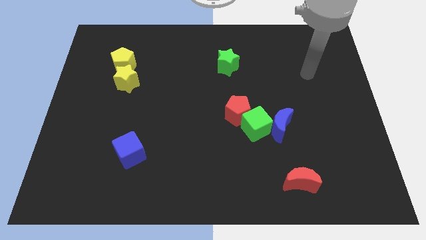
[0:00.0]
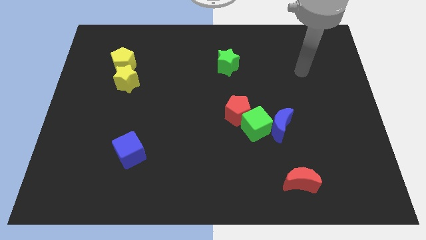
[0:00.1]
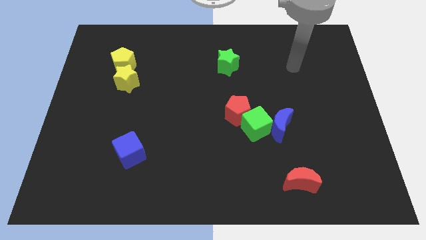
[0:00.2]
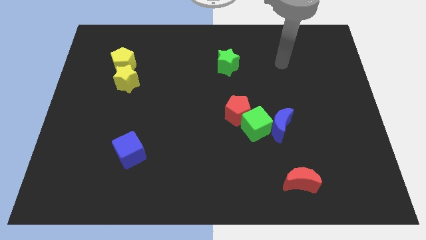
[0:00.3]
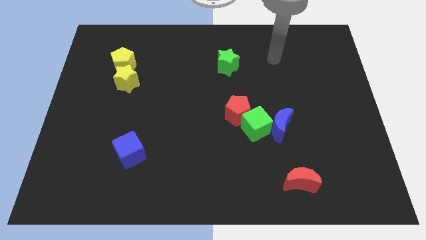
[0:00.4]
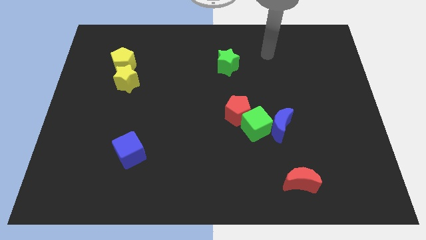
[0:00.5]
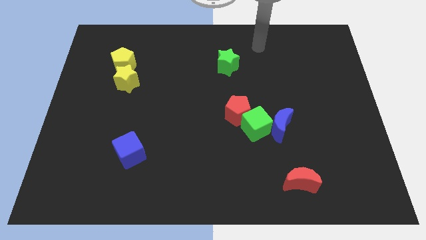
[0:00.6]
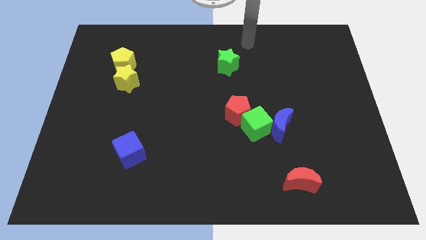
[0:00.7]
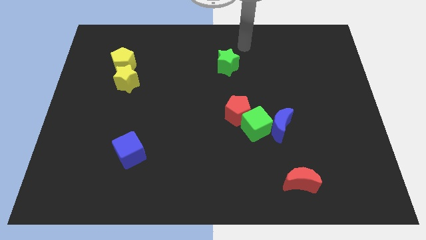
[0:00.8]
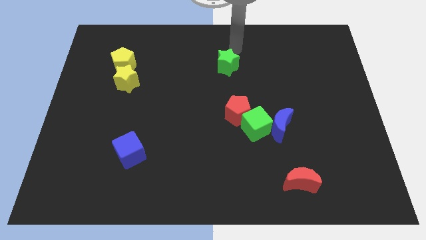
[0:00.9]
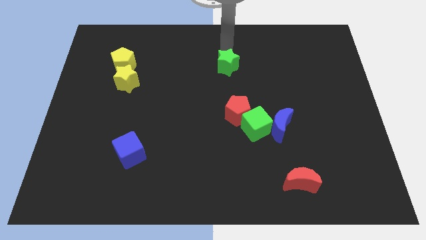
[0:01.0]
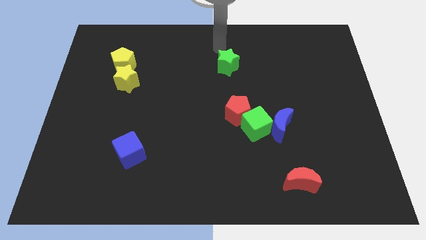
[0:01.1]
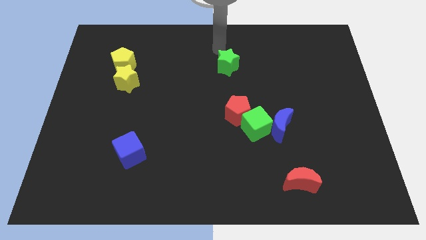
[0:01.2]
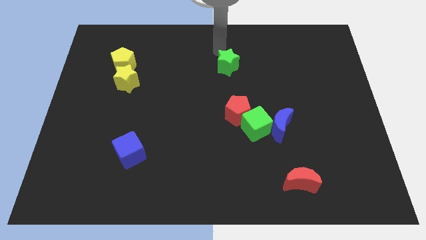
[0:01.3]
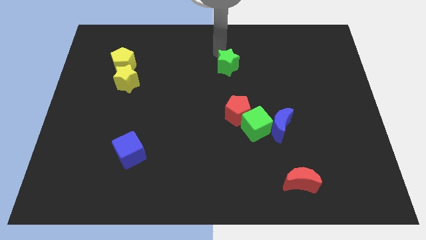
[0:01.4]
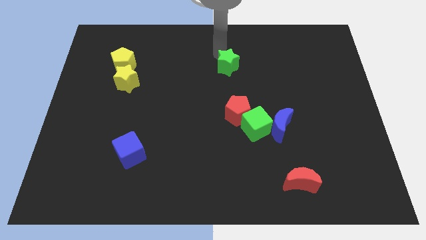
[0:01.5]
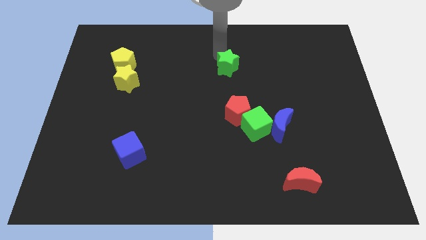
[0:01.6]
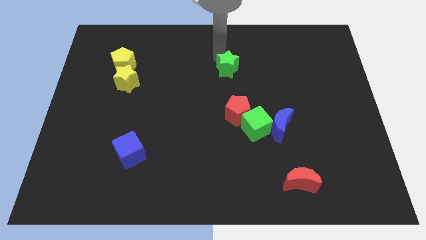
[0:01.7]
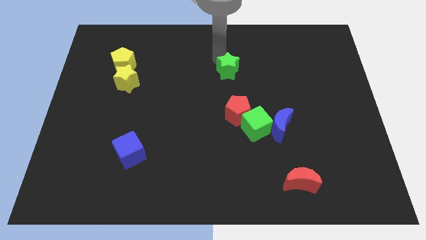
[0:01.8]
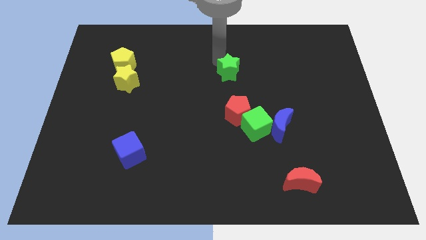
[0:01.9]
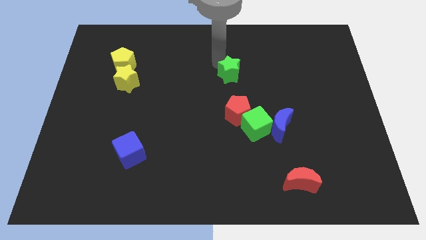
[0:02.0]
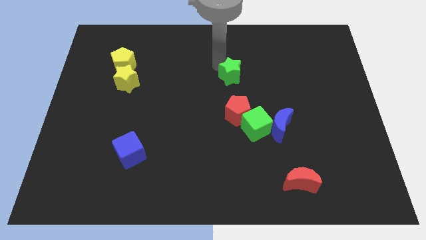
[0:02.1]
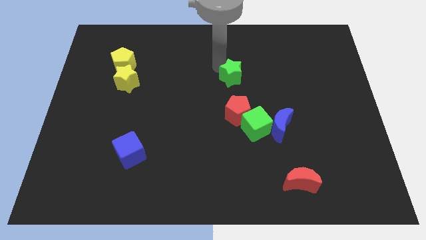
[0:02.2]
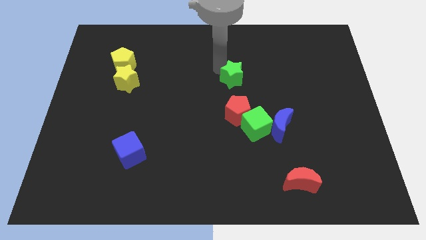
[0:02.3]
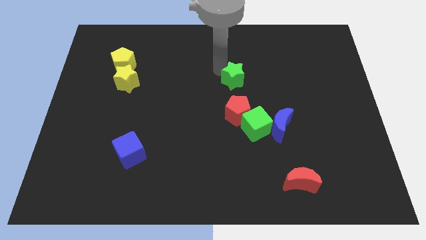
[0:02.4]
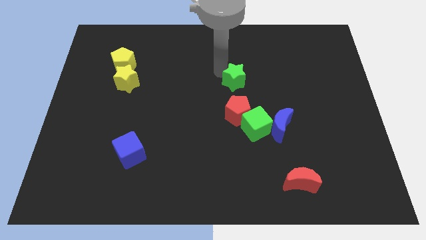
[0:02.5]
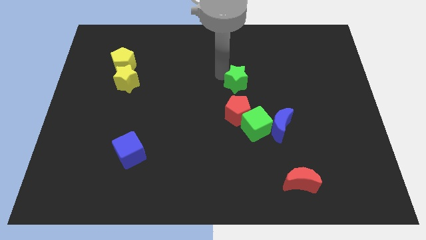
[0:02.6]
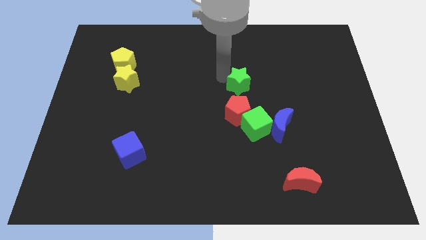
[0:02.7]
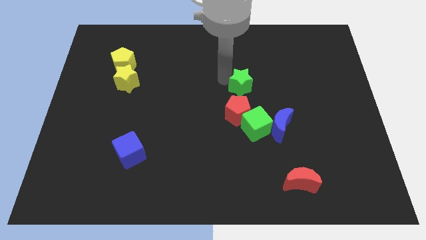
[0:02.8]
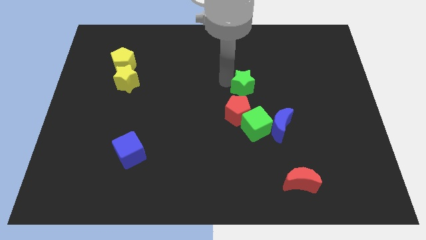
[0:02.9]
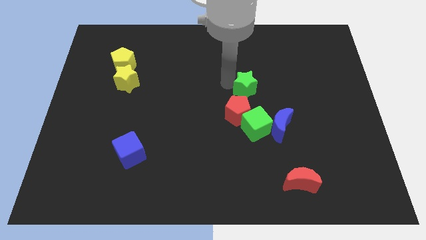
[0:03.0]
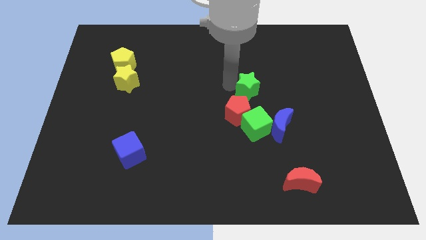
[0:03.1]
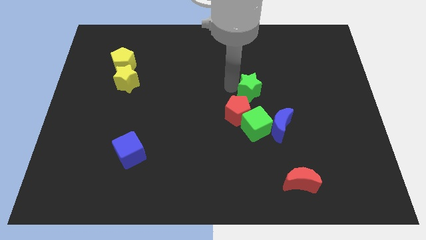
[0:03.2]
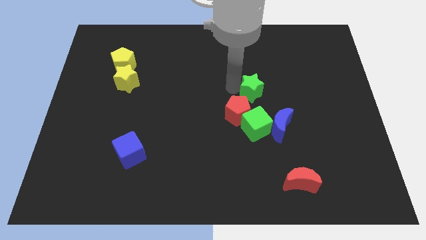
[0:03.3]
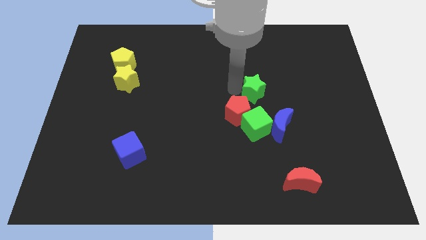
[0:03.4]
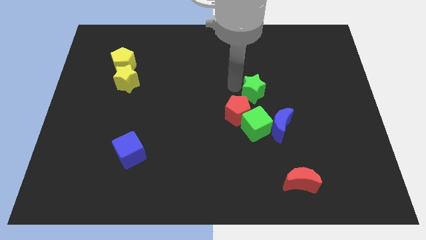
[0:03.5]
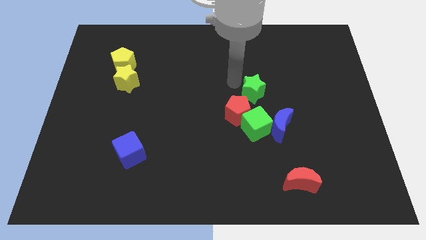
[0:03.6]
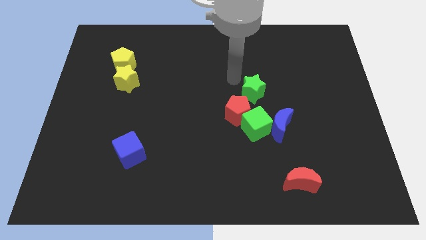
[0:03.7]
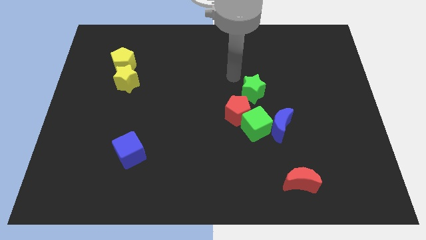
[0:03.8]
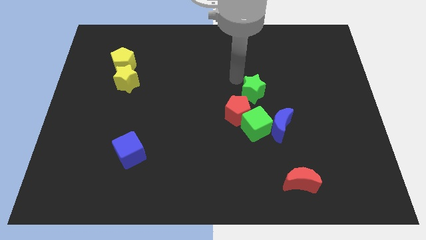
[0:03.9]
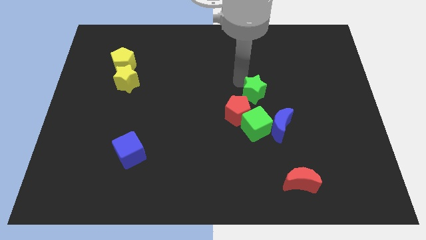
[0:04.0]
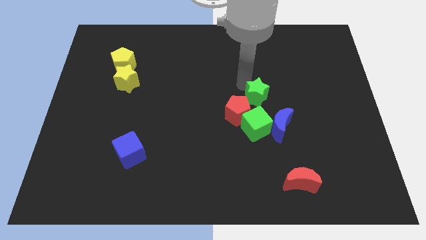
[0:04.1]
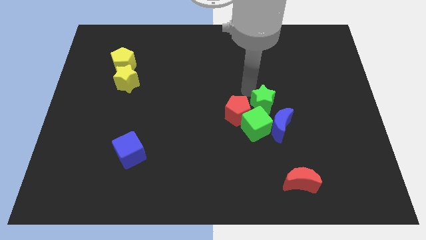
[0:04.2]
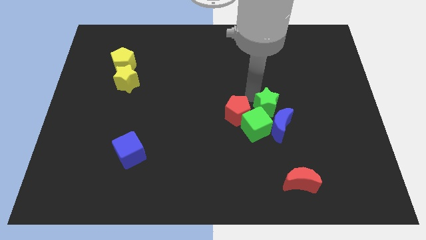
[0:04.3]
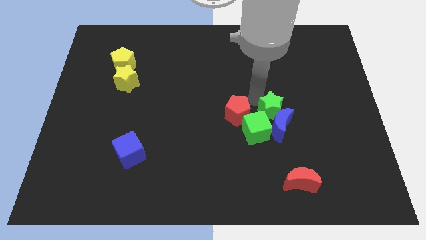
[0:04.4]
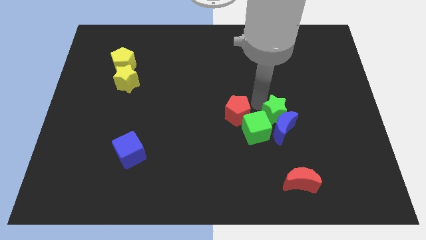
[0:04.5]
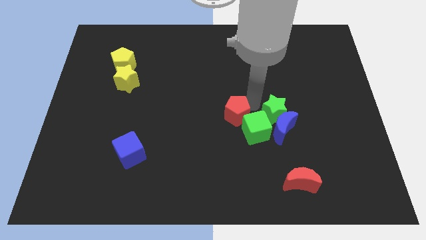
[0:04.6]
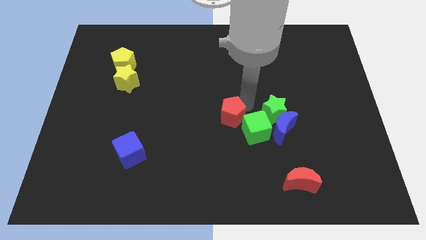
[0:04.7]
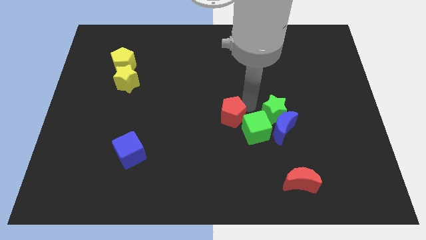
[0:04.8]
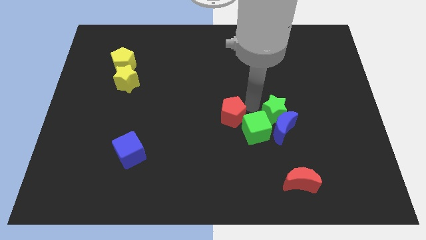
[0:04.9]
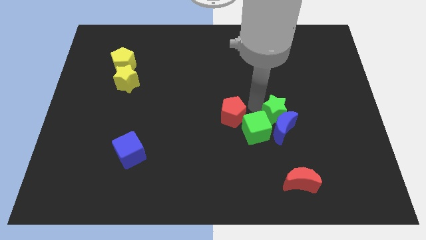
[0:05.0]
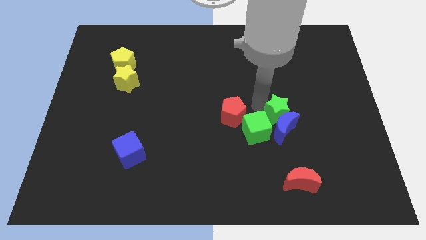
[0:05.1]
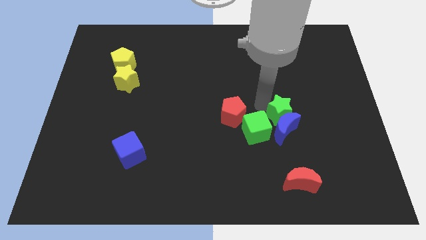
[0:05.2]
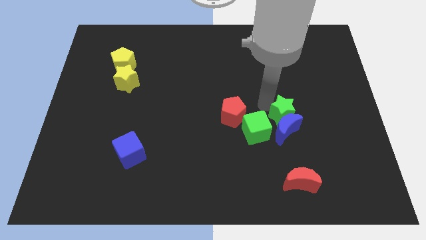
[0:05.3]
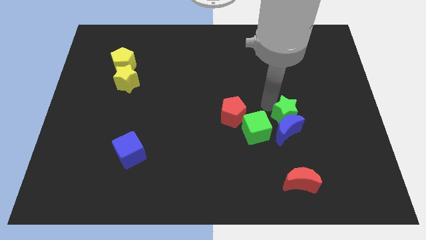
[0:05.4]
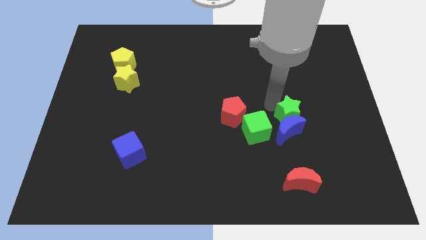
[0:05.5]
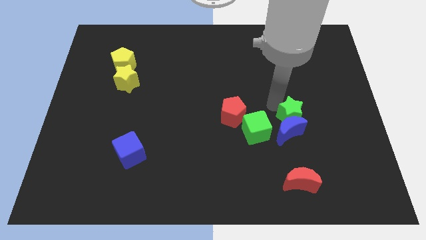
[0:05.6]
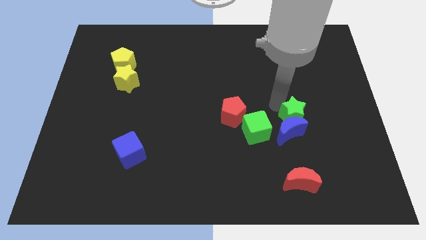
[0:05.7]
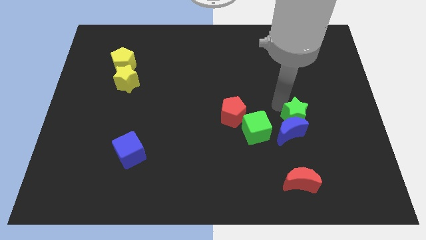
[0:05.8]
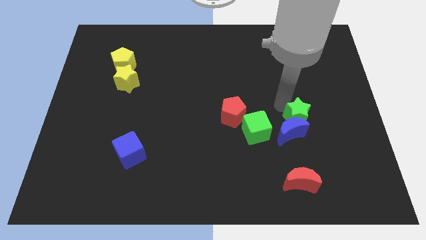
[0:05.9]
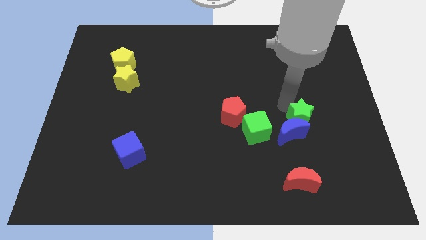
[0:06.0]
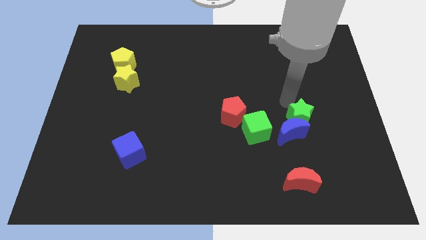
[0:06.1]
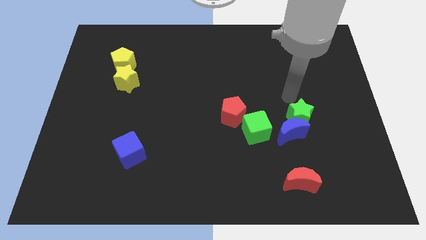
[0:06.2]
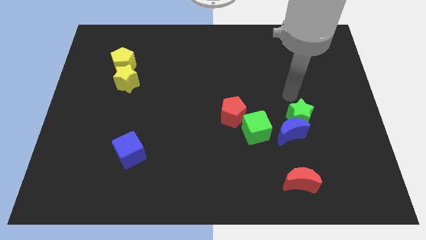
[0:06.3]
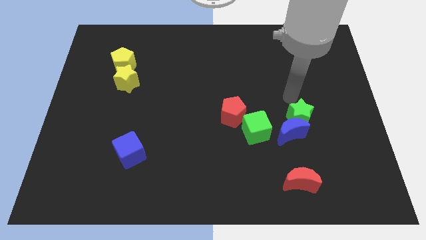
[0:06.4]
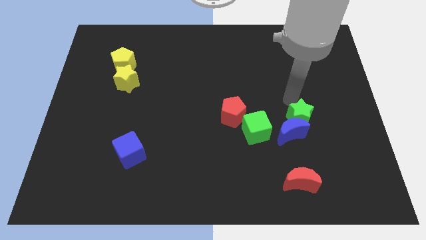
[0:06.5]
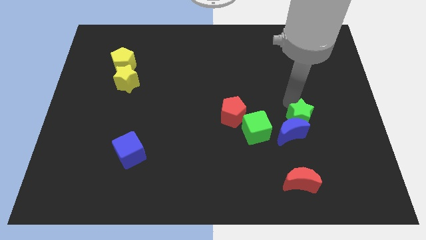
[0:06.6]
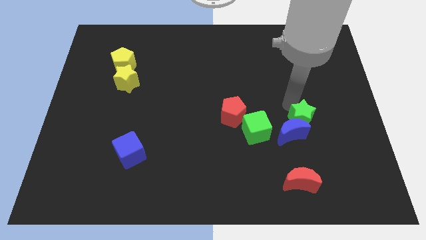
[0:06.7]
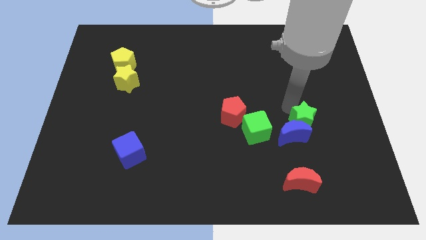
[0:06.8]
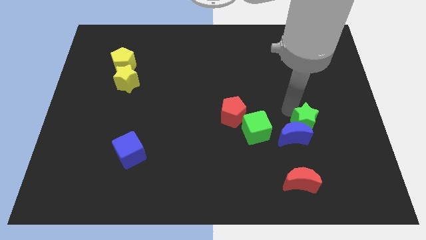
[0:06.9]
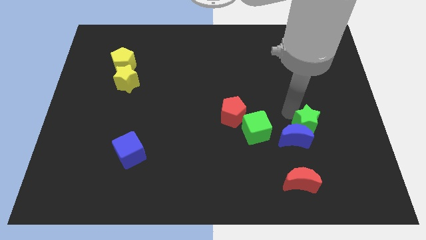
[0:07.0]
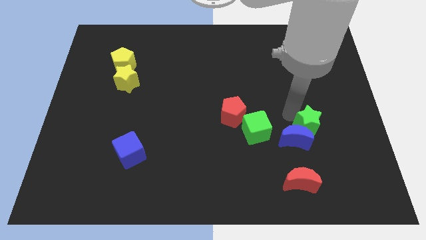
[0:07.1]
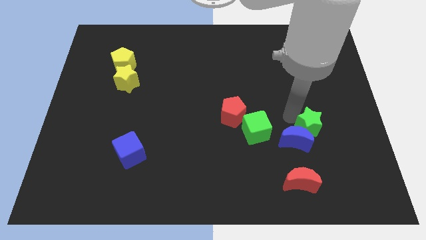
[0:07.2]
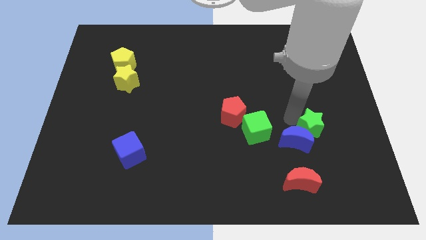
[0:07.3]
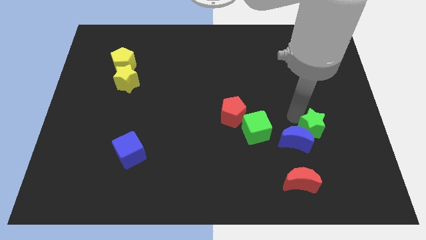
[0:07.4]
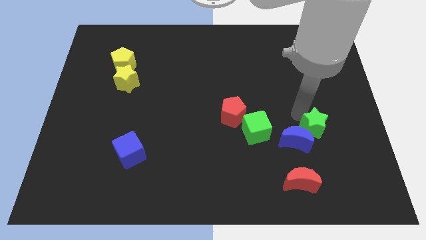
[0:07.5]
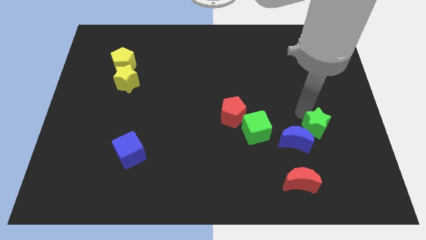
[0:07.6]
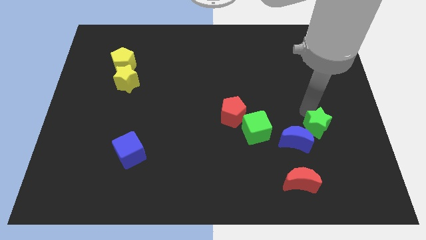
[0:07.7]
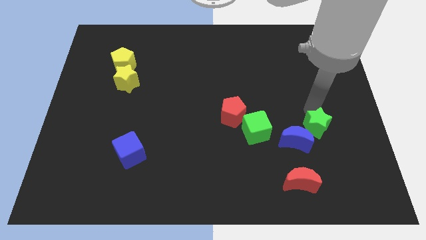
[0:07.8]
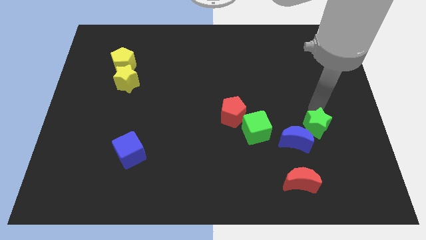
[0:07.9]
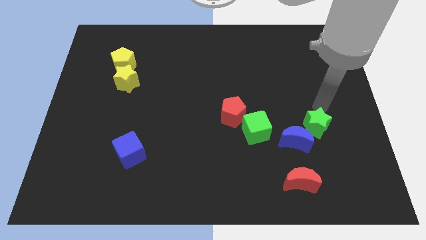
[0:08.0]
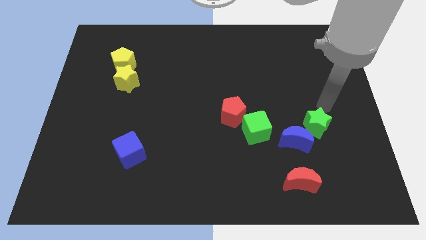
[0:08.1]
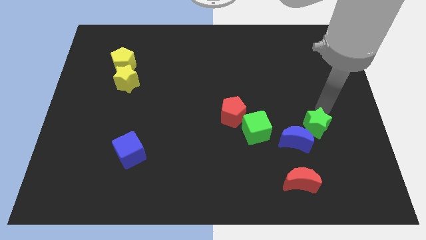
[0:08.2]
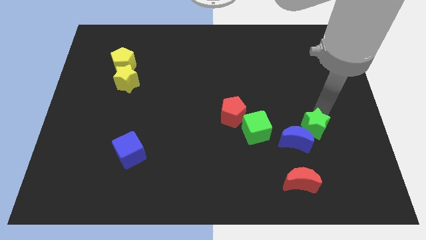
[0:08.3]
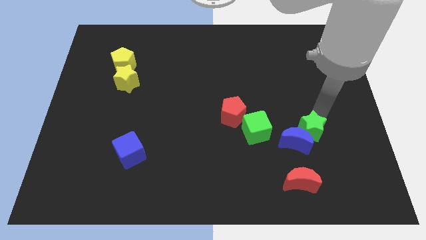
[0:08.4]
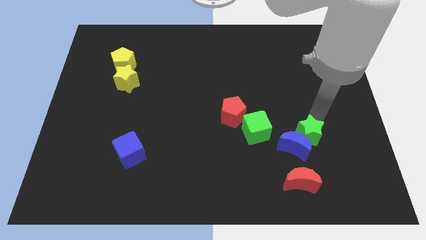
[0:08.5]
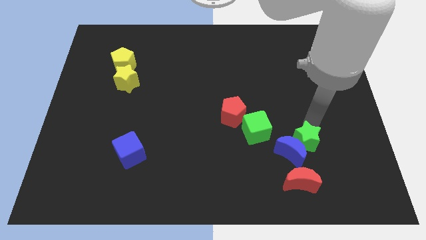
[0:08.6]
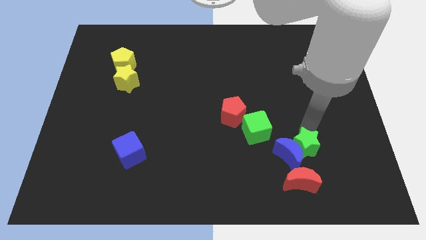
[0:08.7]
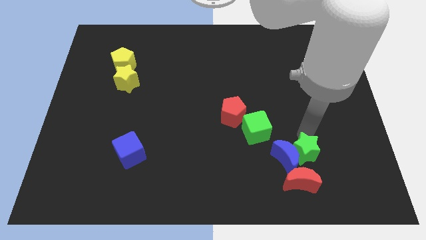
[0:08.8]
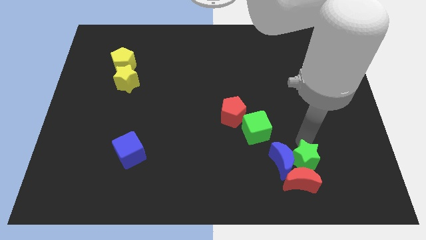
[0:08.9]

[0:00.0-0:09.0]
slide the green star close to the red moon
